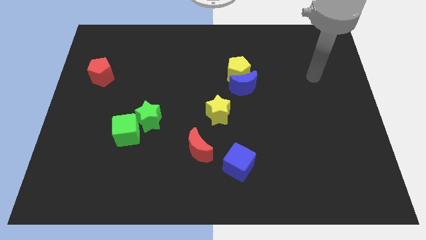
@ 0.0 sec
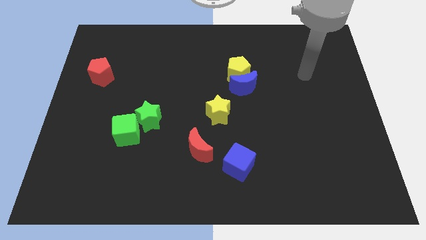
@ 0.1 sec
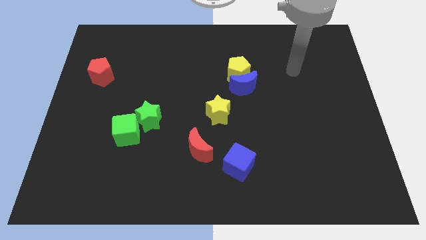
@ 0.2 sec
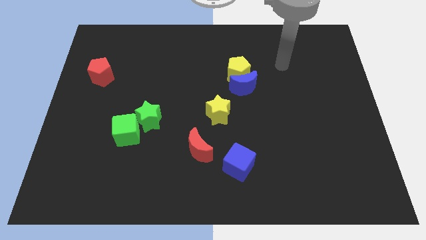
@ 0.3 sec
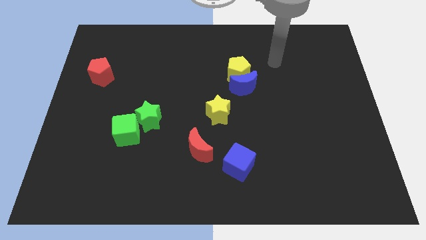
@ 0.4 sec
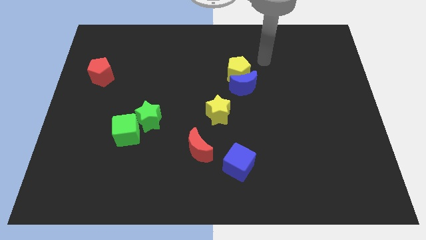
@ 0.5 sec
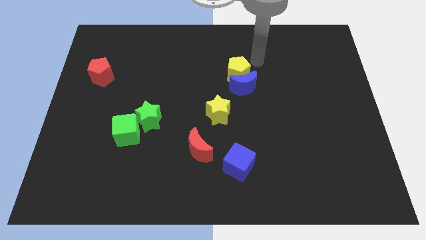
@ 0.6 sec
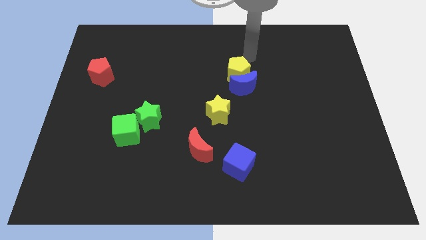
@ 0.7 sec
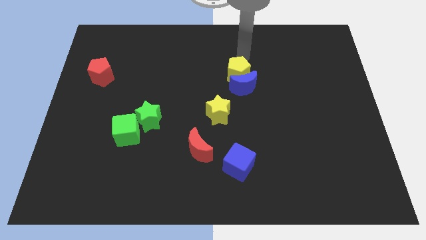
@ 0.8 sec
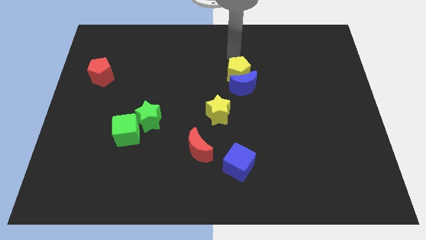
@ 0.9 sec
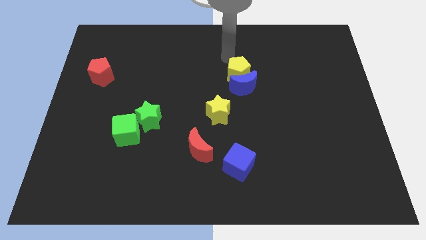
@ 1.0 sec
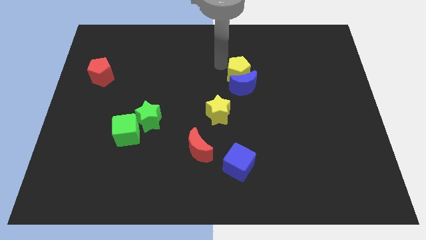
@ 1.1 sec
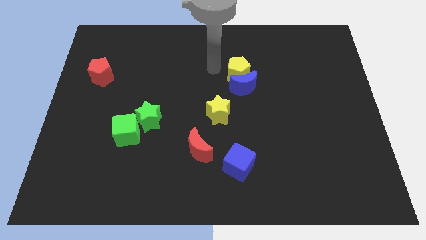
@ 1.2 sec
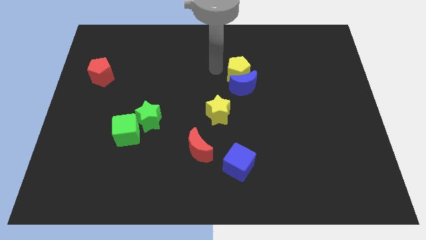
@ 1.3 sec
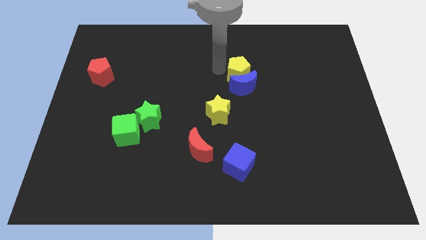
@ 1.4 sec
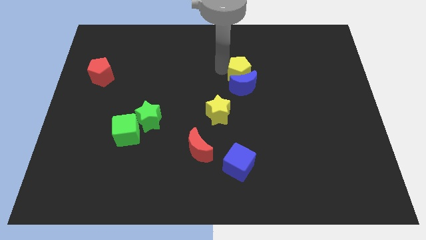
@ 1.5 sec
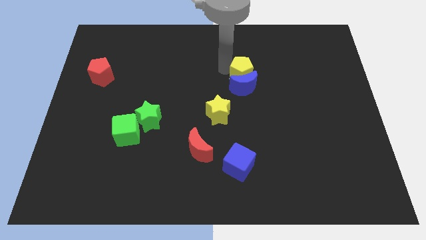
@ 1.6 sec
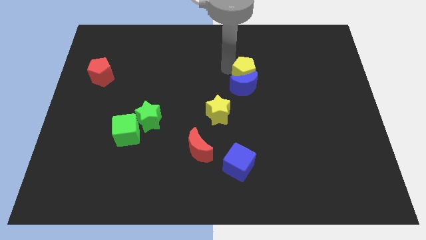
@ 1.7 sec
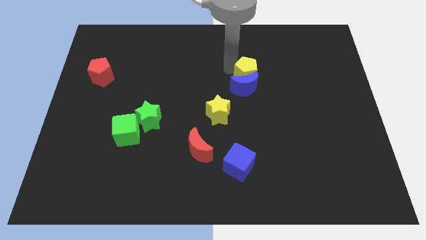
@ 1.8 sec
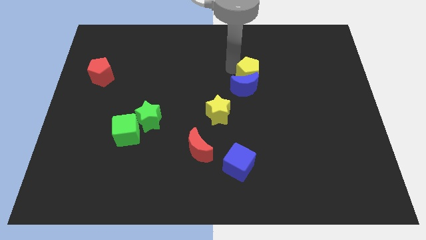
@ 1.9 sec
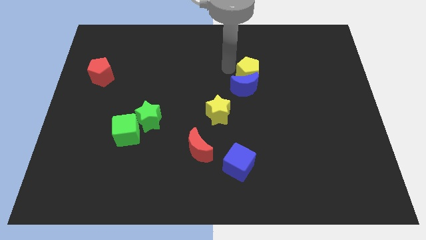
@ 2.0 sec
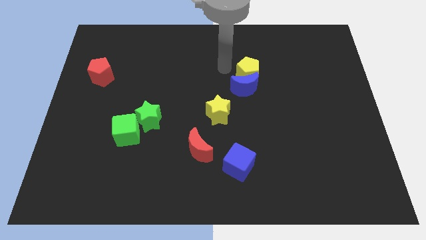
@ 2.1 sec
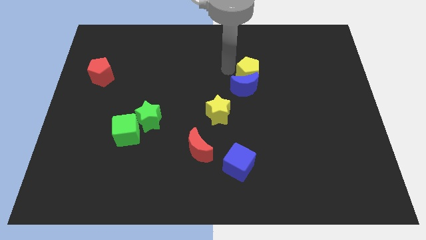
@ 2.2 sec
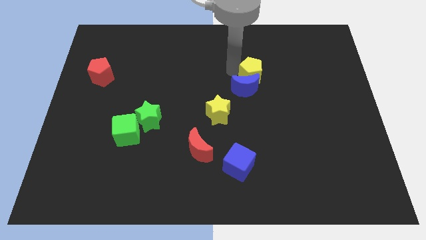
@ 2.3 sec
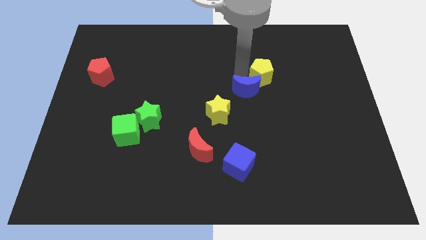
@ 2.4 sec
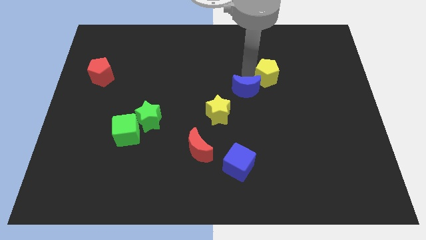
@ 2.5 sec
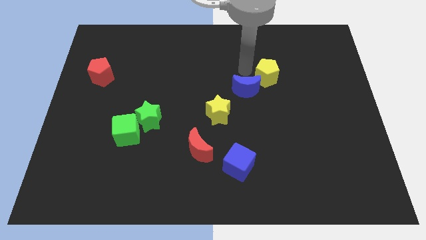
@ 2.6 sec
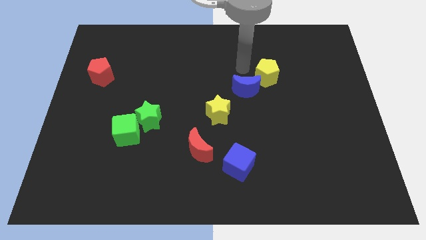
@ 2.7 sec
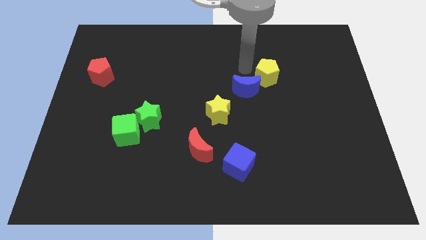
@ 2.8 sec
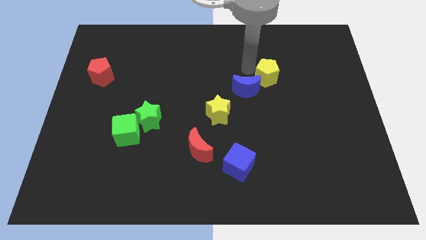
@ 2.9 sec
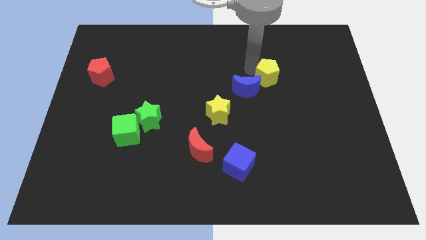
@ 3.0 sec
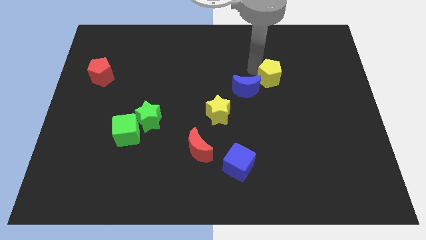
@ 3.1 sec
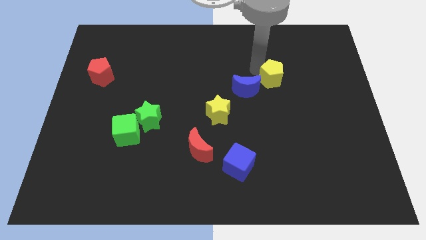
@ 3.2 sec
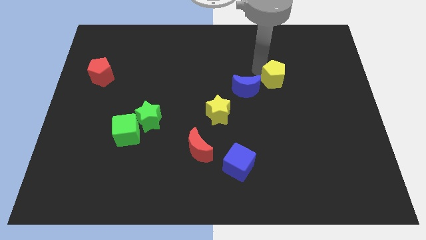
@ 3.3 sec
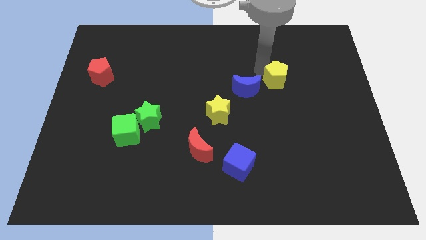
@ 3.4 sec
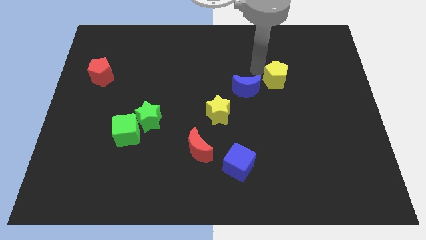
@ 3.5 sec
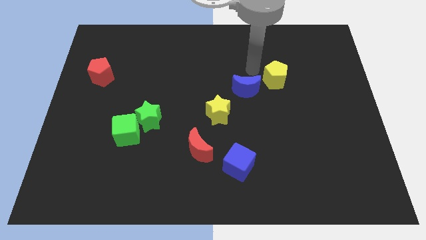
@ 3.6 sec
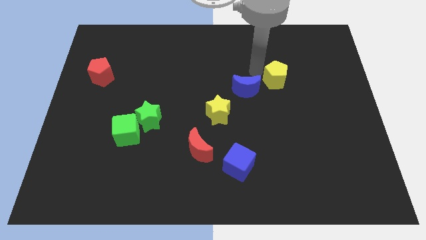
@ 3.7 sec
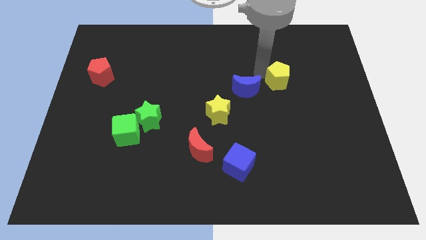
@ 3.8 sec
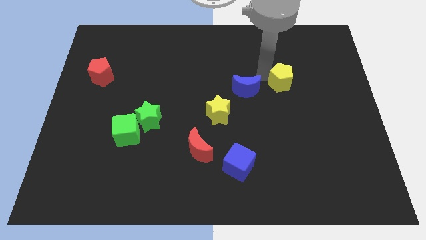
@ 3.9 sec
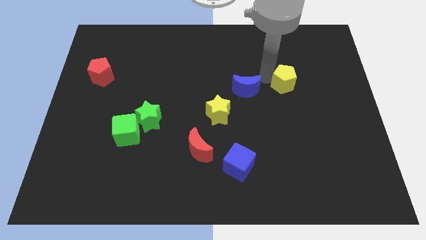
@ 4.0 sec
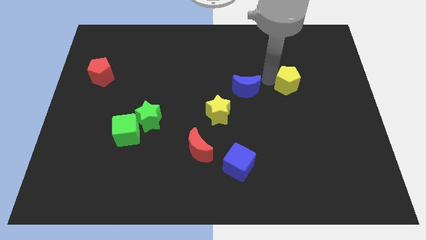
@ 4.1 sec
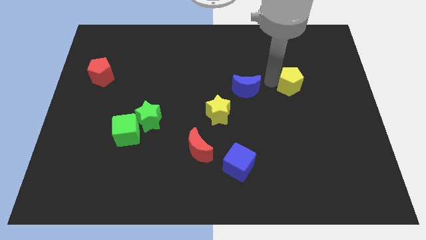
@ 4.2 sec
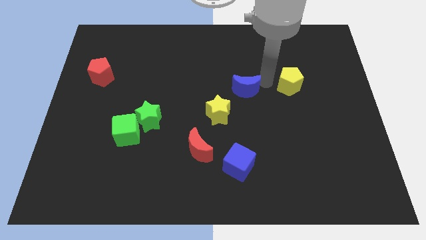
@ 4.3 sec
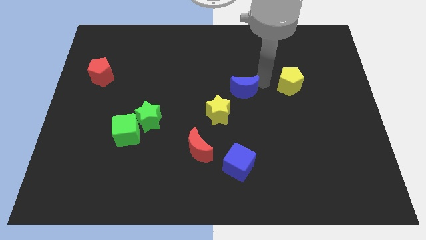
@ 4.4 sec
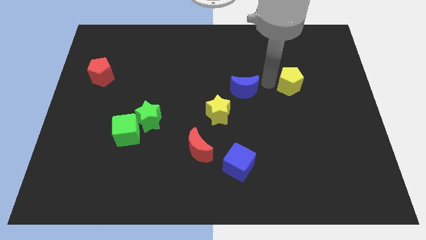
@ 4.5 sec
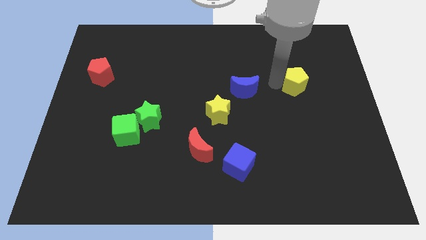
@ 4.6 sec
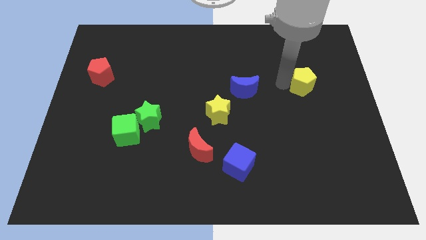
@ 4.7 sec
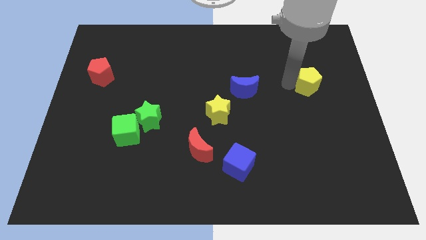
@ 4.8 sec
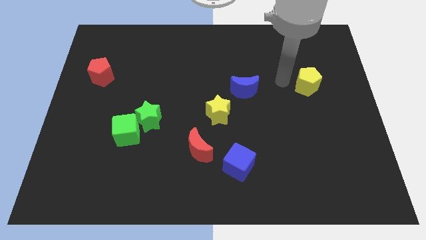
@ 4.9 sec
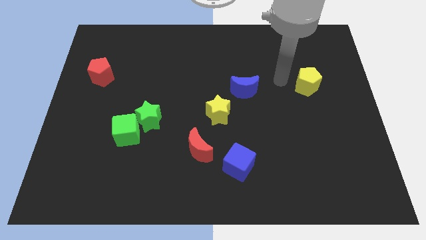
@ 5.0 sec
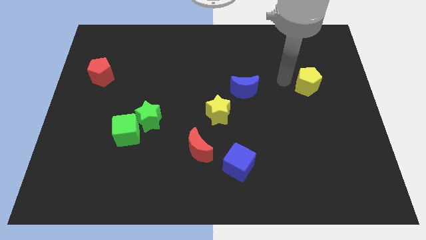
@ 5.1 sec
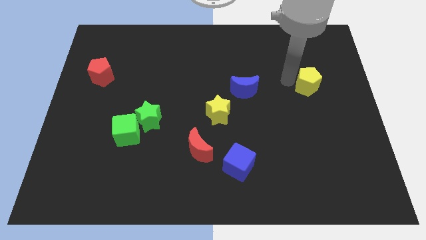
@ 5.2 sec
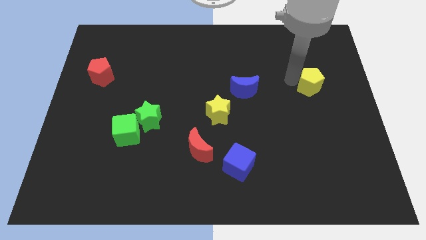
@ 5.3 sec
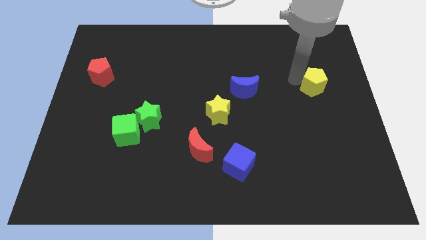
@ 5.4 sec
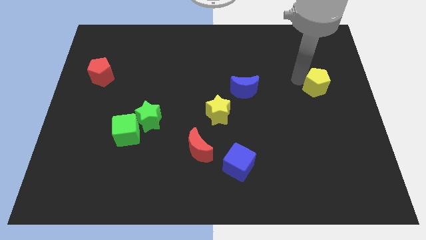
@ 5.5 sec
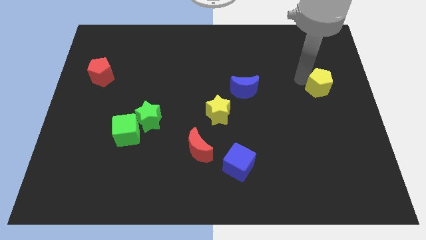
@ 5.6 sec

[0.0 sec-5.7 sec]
push the yellow pentagon to the right side

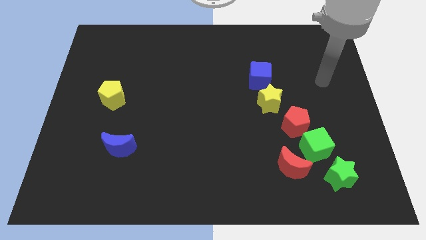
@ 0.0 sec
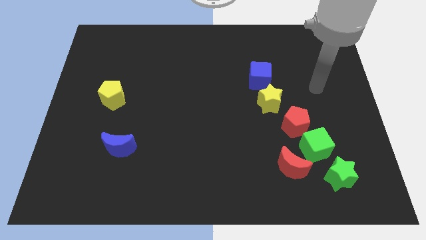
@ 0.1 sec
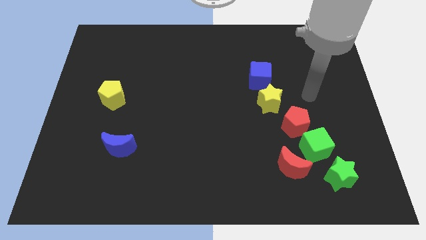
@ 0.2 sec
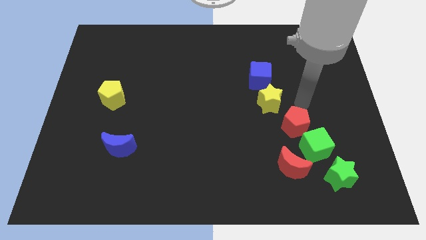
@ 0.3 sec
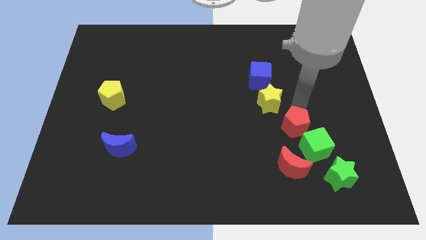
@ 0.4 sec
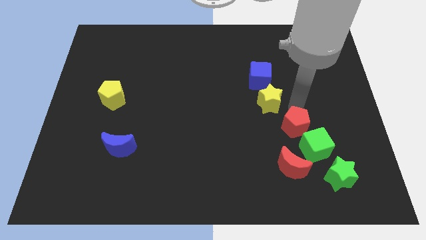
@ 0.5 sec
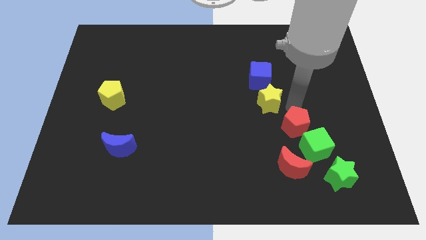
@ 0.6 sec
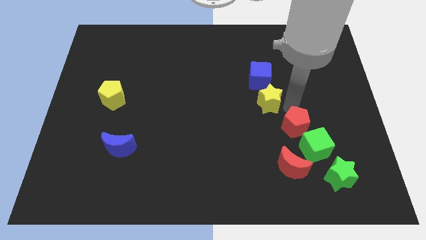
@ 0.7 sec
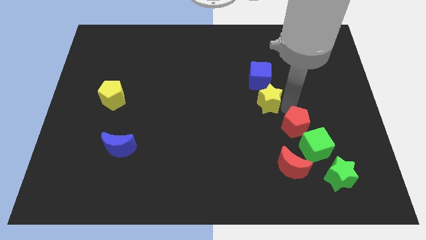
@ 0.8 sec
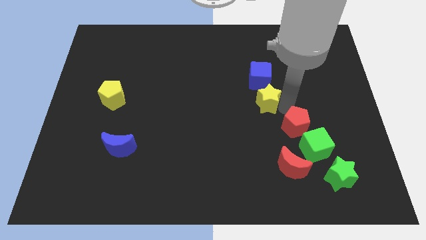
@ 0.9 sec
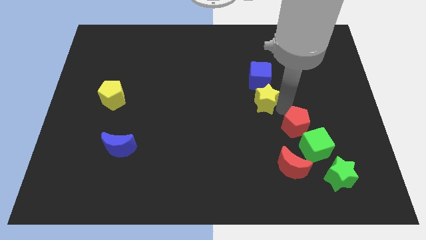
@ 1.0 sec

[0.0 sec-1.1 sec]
move the yellow star to the middle

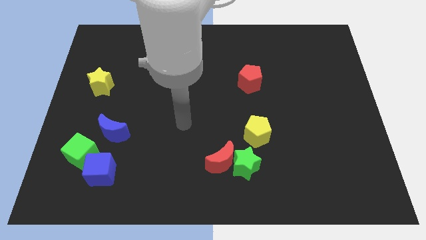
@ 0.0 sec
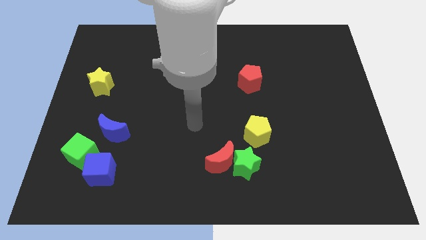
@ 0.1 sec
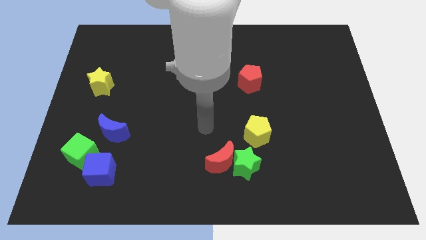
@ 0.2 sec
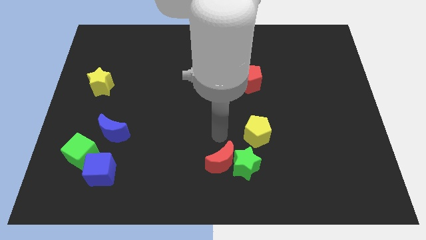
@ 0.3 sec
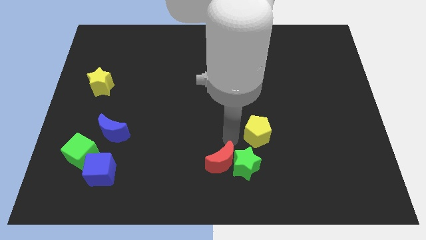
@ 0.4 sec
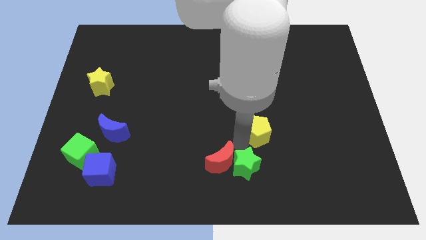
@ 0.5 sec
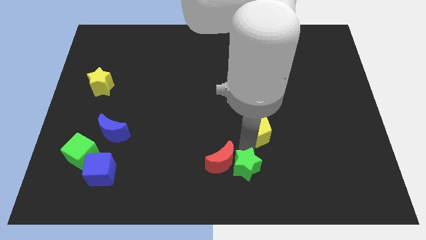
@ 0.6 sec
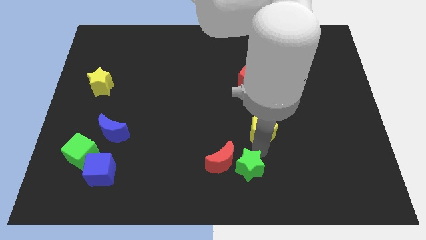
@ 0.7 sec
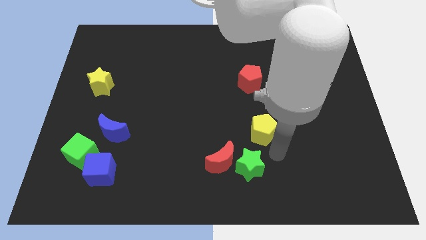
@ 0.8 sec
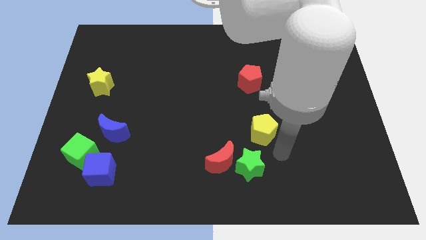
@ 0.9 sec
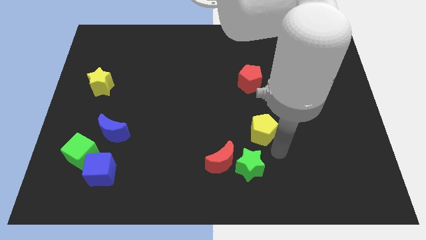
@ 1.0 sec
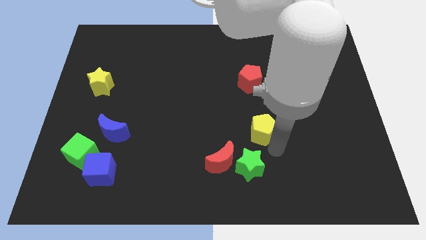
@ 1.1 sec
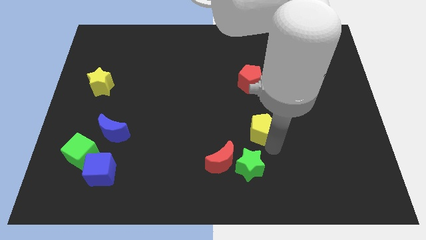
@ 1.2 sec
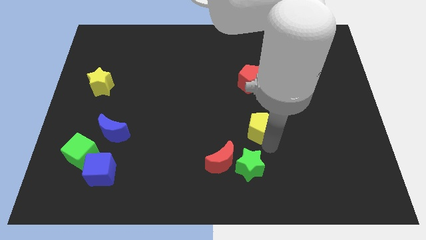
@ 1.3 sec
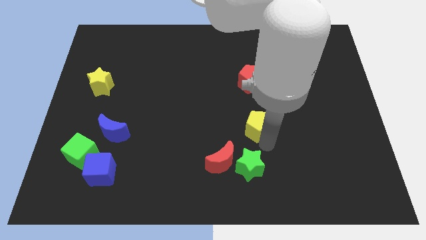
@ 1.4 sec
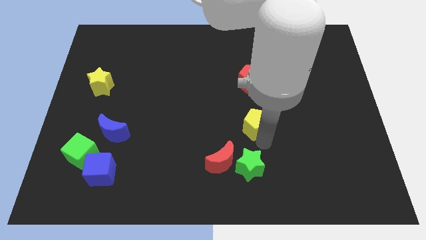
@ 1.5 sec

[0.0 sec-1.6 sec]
slide the yellow pentagon to the middle
